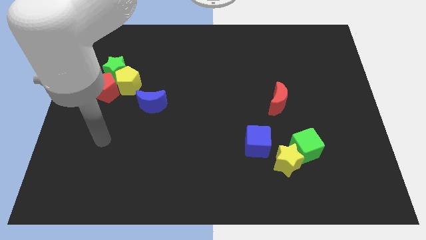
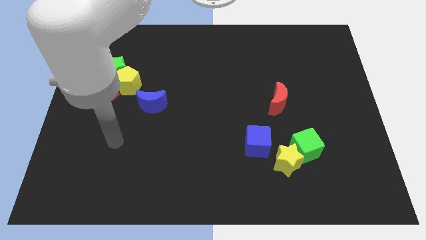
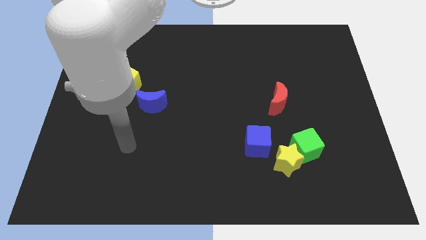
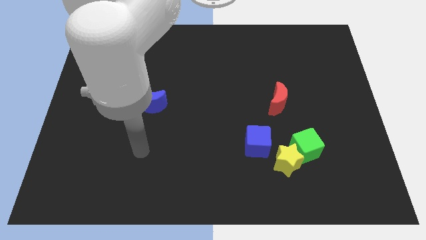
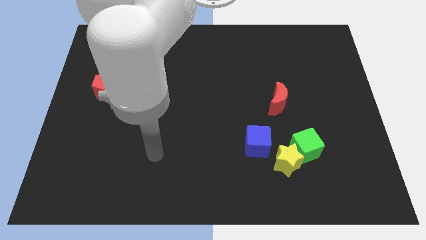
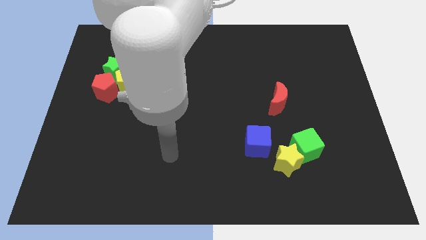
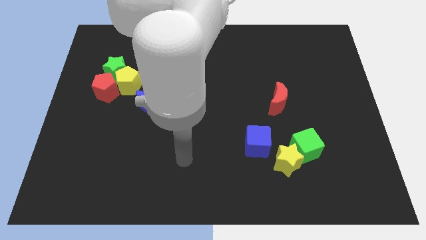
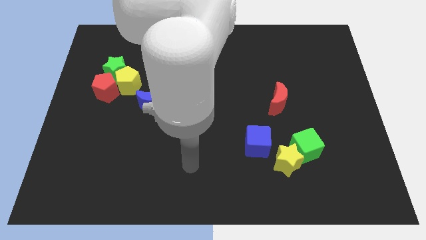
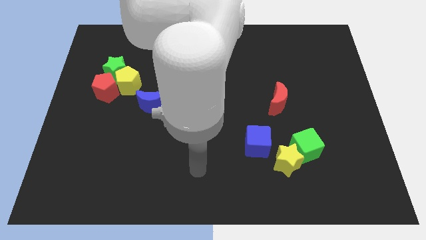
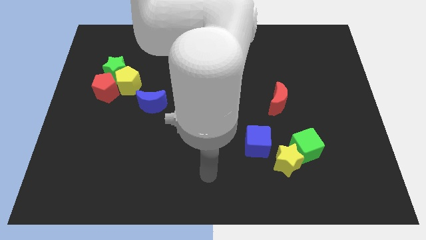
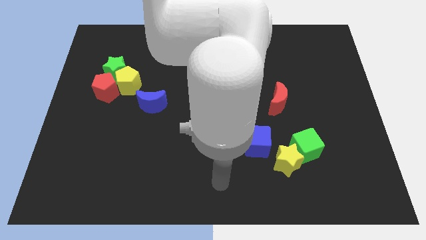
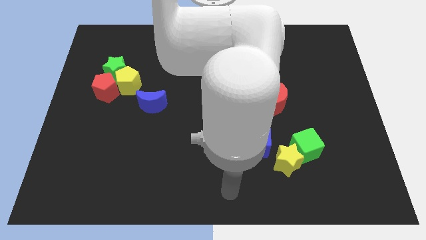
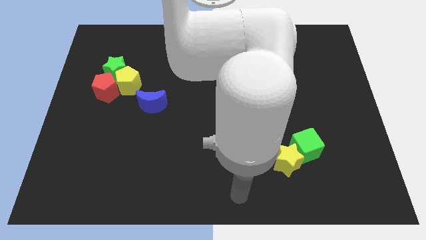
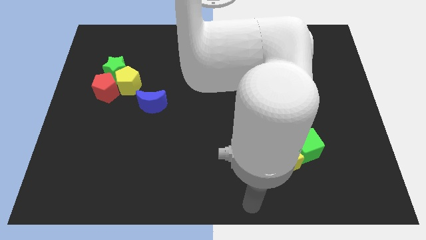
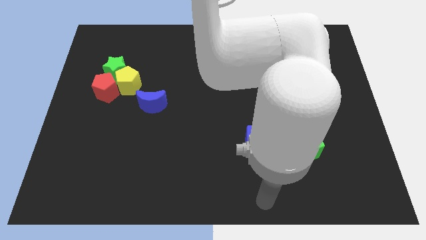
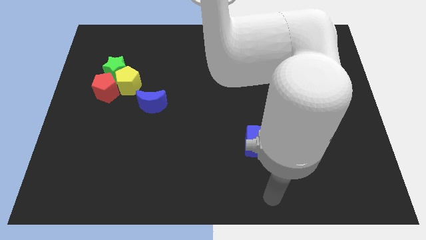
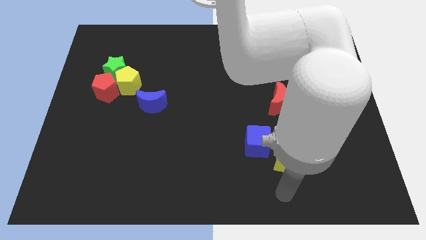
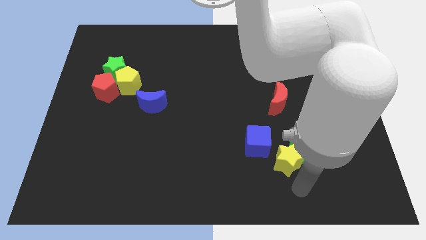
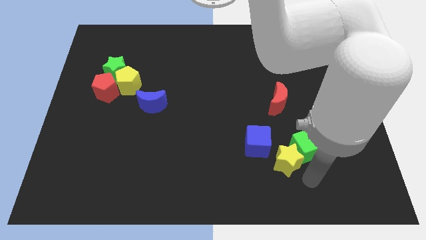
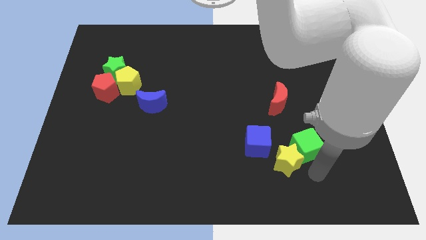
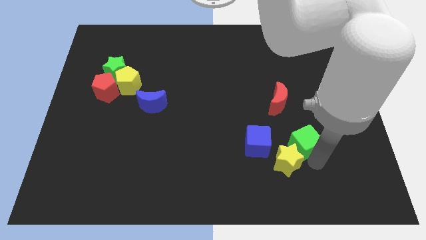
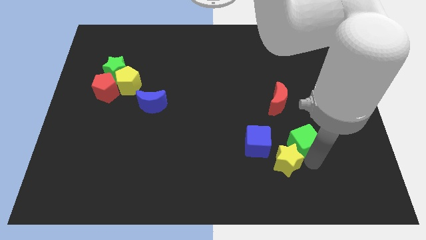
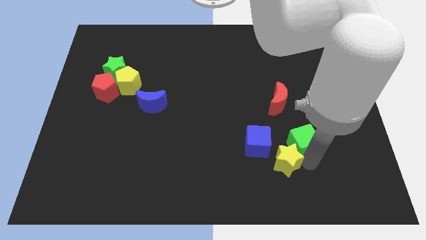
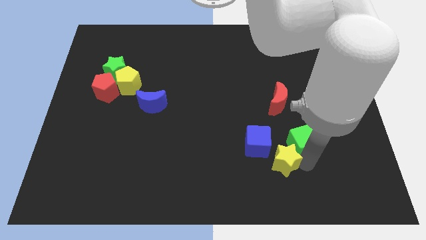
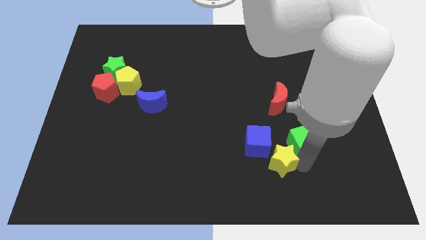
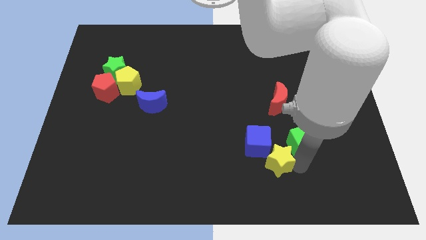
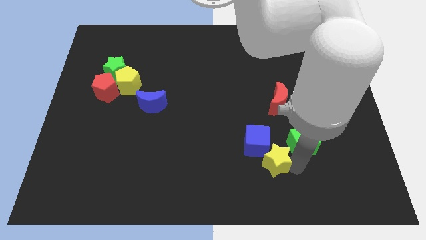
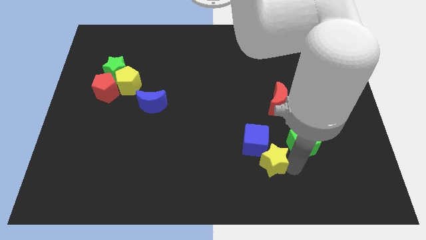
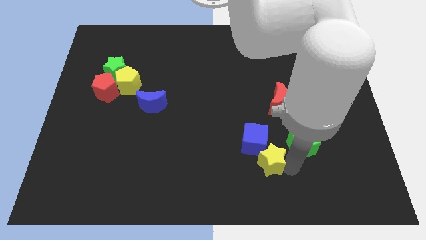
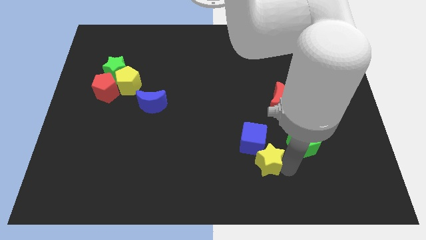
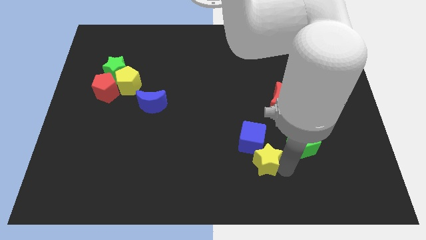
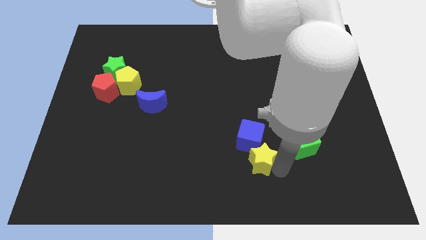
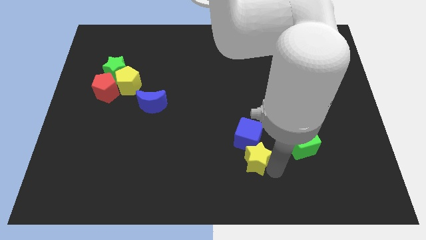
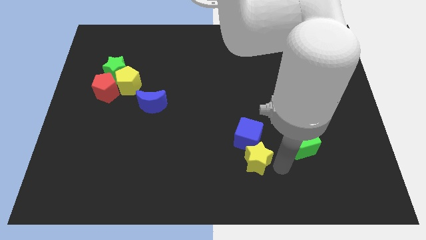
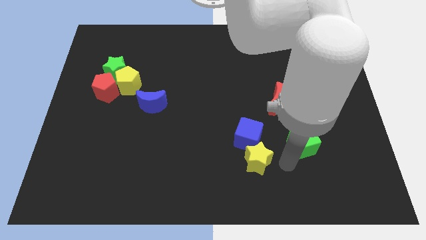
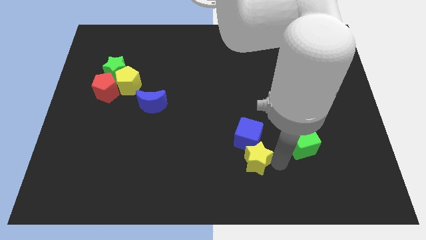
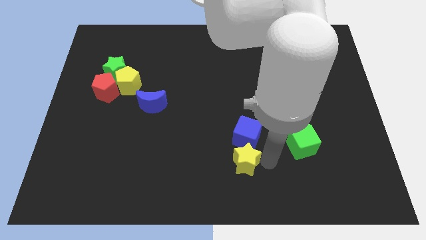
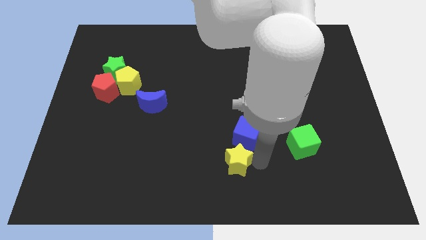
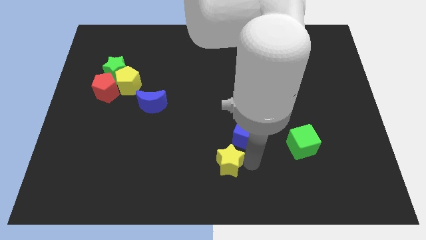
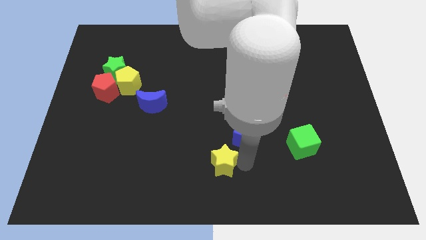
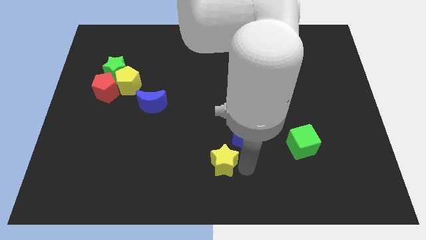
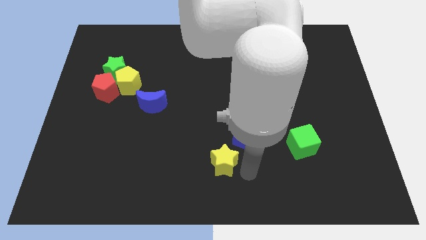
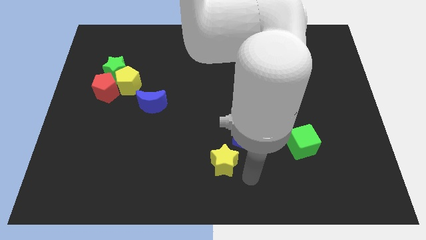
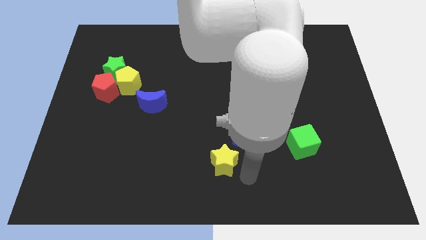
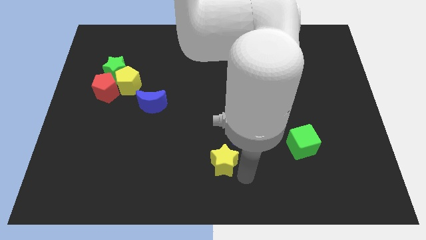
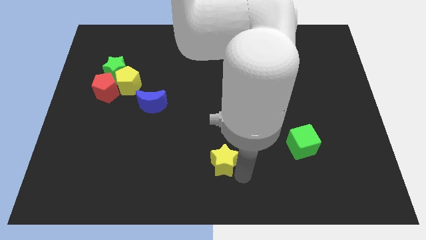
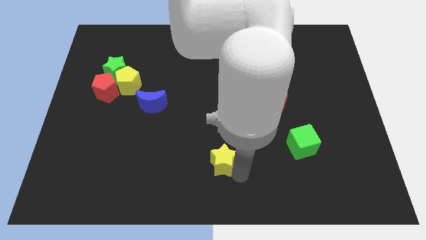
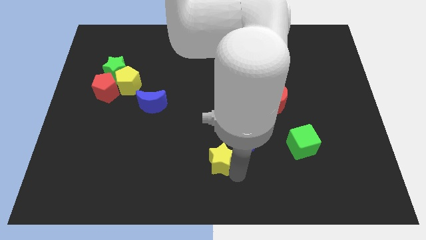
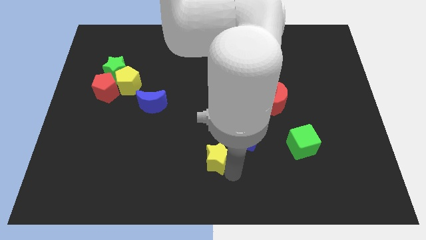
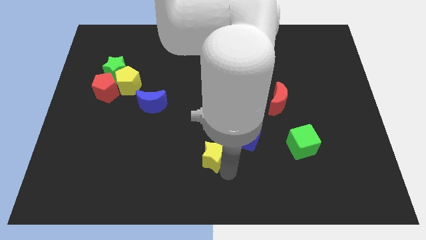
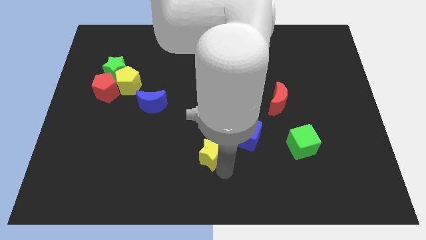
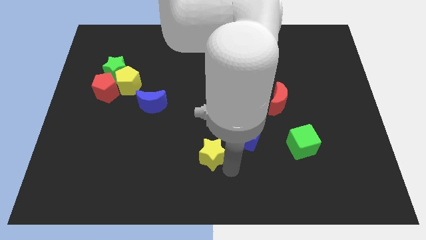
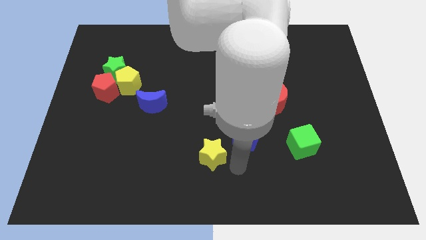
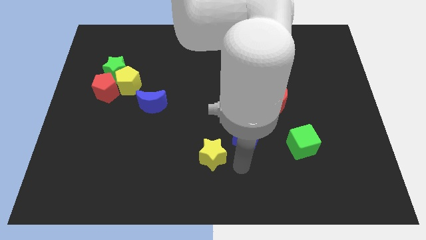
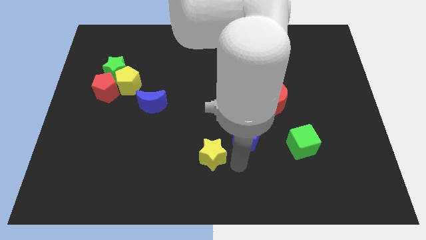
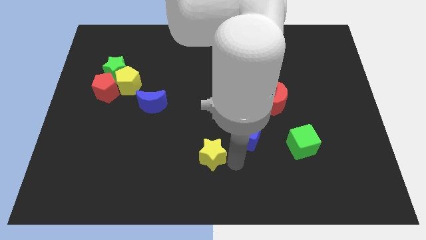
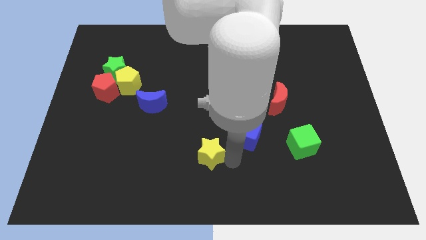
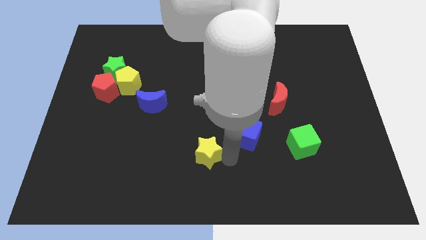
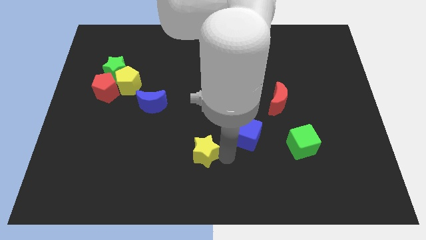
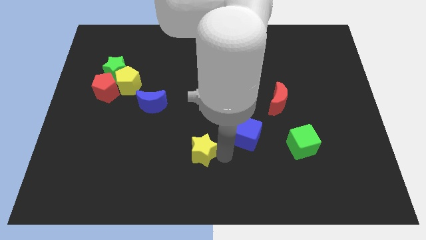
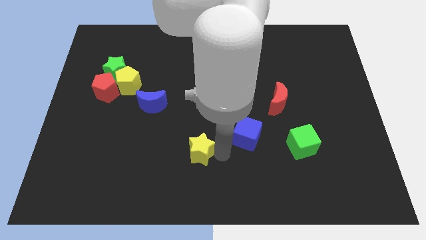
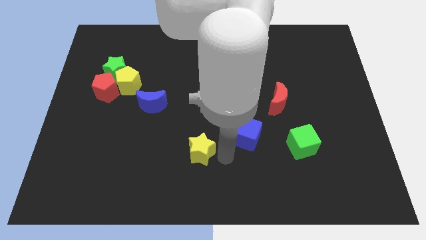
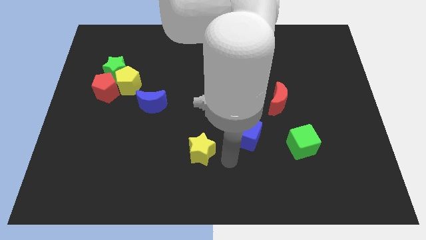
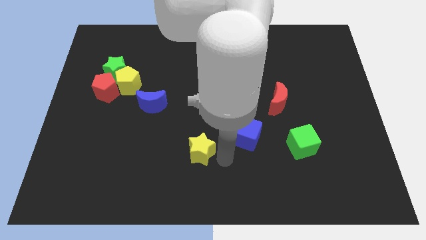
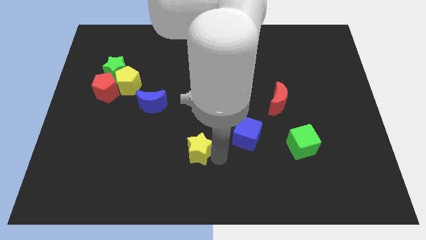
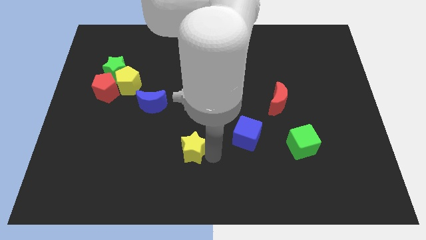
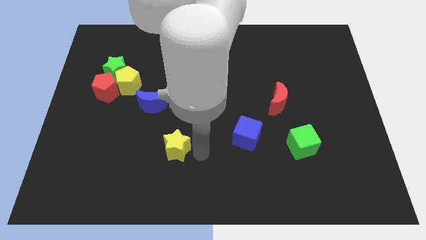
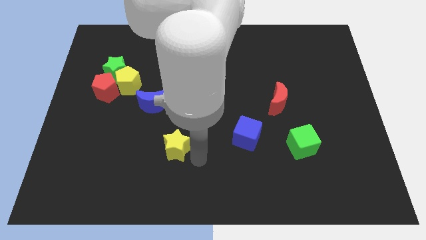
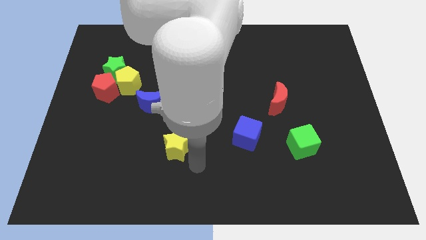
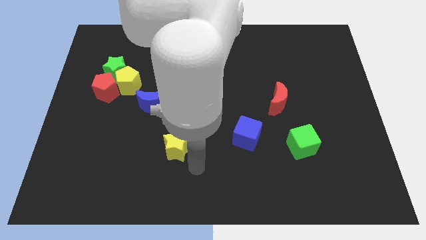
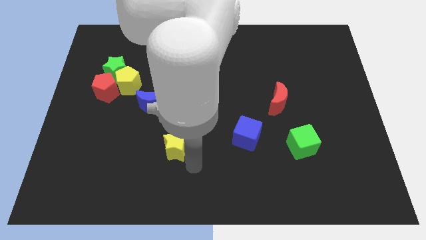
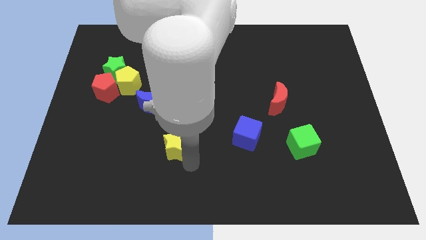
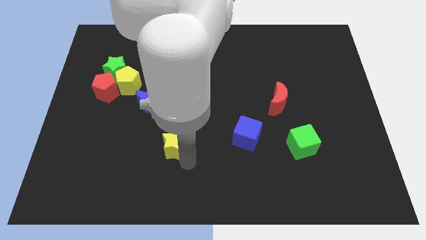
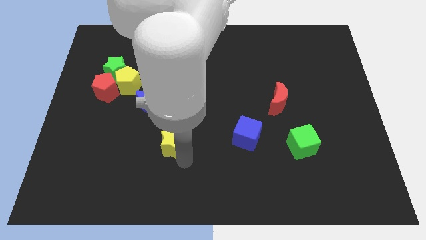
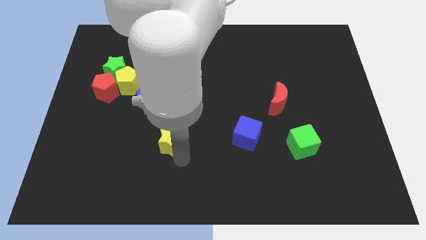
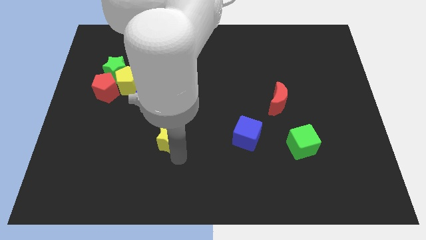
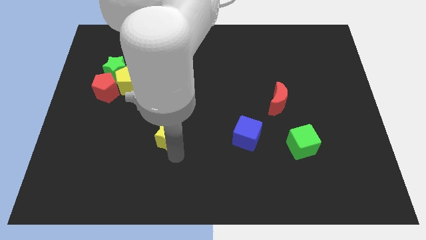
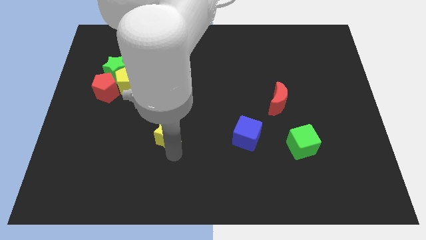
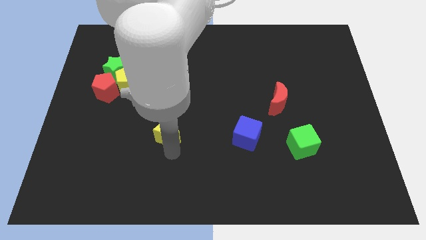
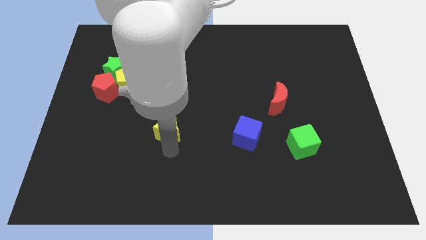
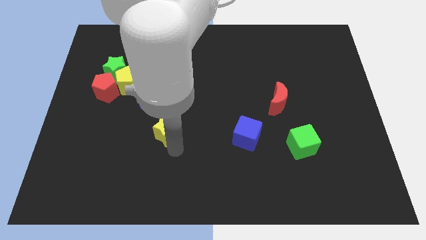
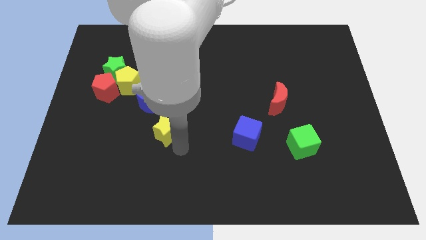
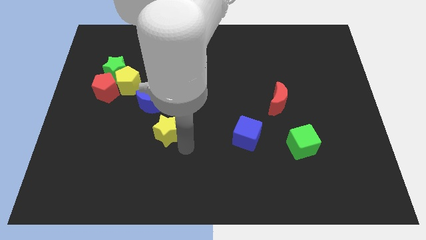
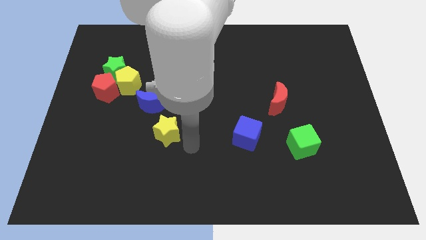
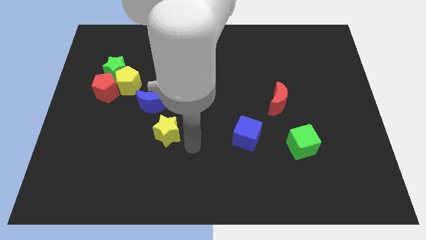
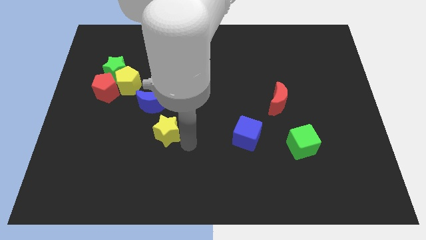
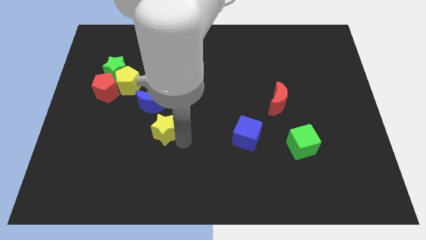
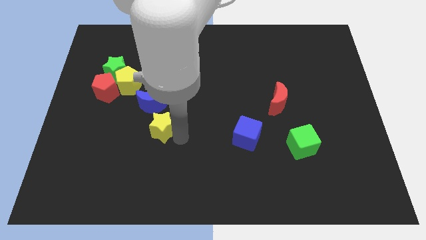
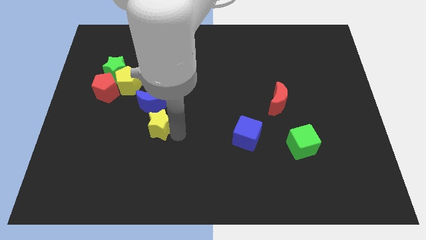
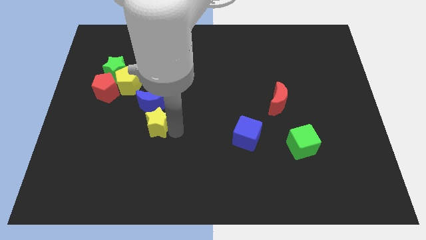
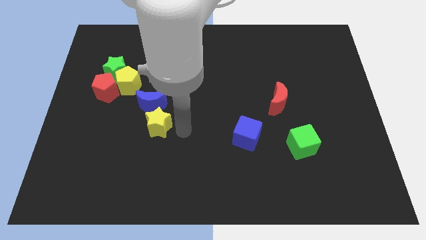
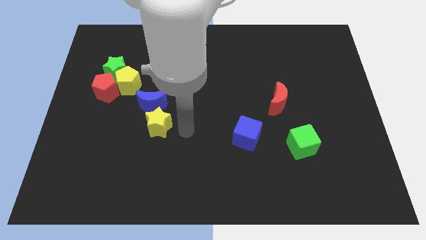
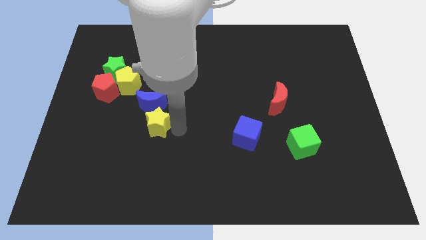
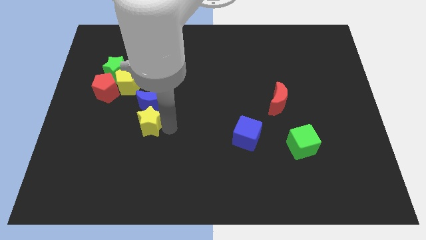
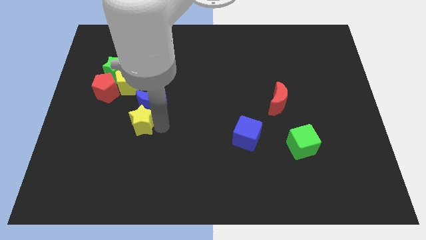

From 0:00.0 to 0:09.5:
push the yellow star below the yellow pentagon
